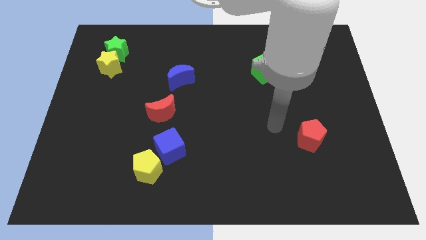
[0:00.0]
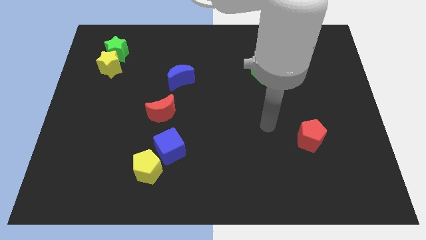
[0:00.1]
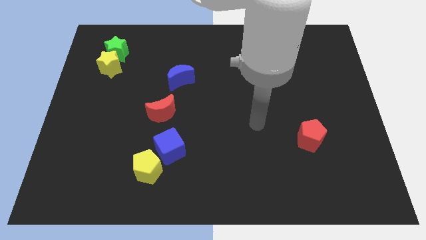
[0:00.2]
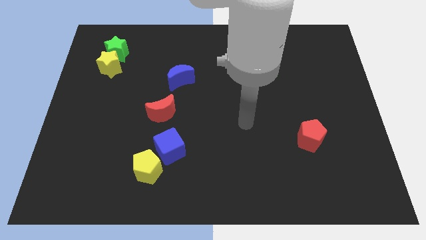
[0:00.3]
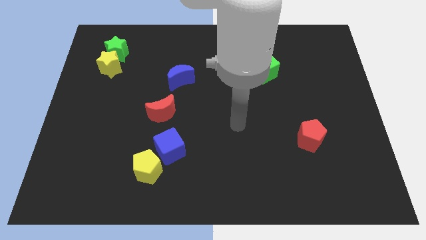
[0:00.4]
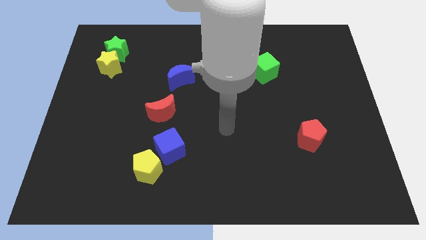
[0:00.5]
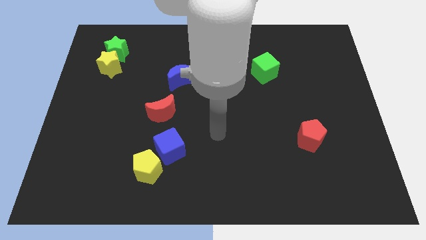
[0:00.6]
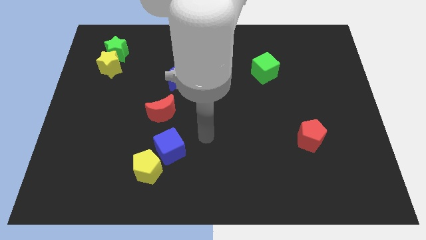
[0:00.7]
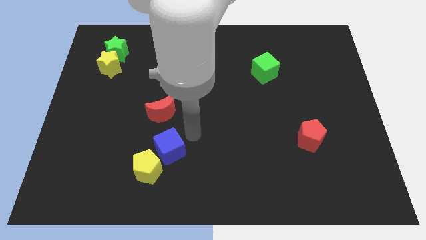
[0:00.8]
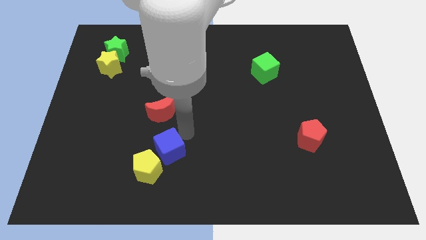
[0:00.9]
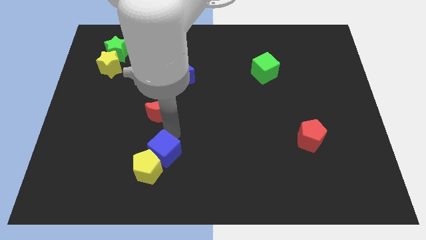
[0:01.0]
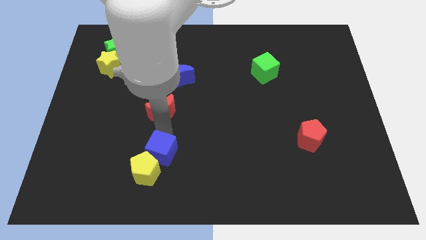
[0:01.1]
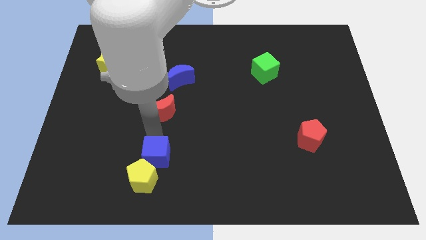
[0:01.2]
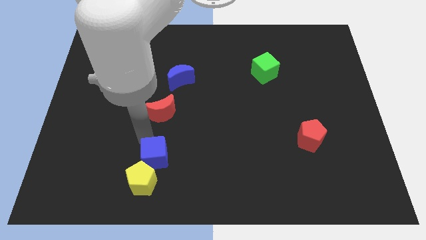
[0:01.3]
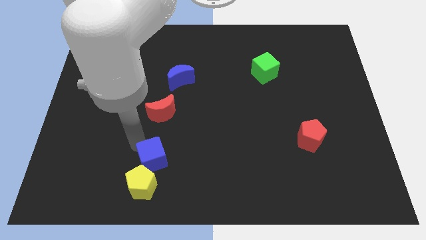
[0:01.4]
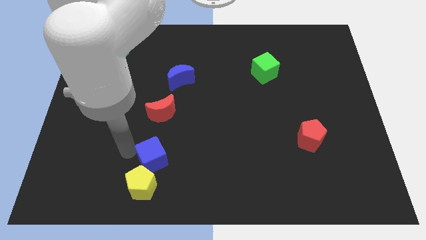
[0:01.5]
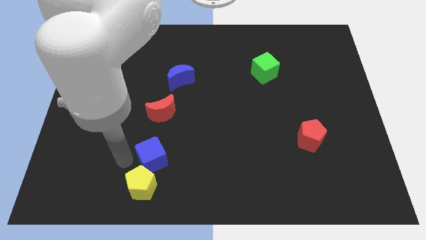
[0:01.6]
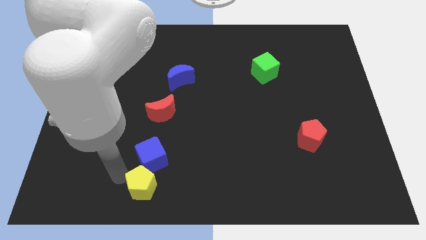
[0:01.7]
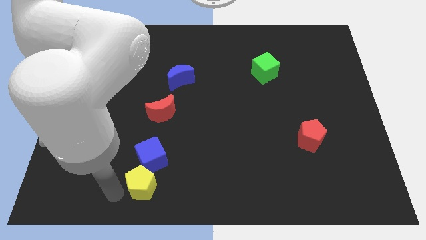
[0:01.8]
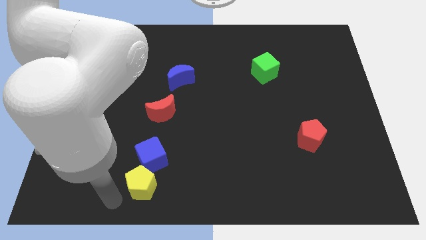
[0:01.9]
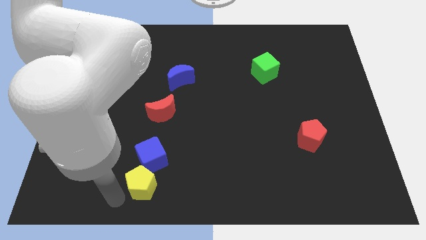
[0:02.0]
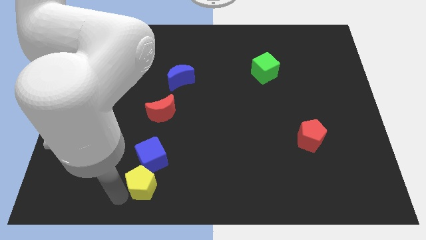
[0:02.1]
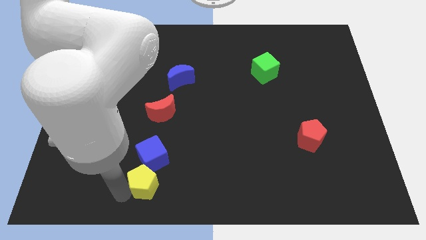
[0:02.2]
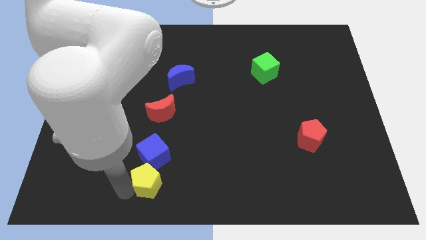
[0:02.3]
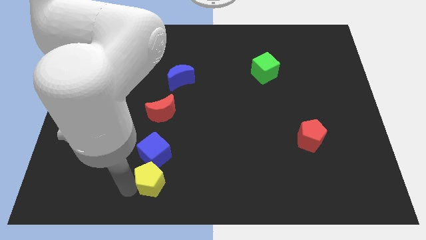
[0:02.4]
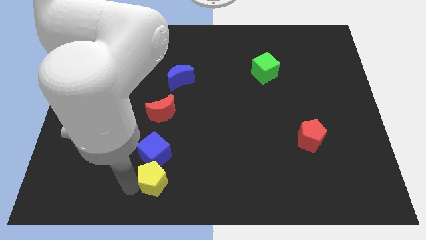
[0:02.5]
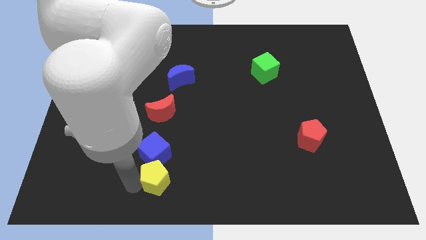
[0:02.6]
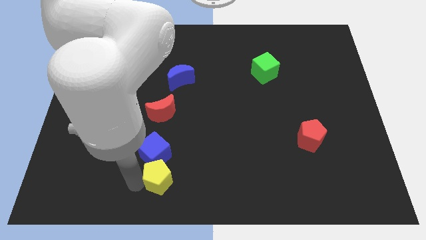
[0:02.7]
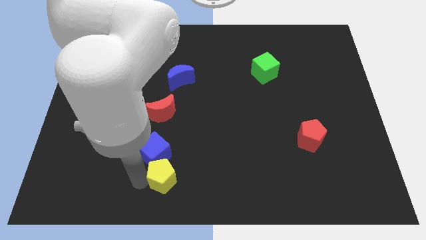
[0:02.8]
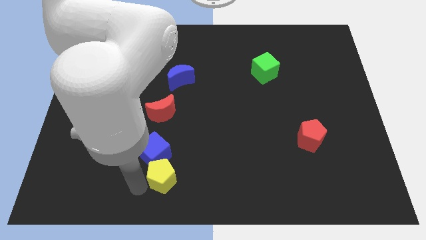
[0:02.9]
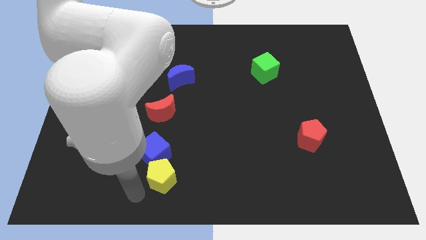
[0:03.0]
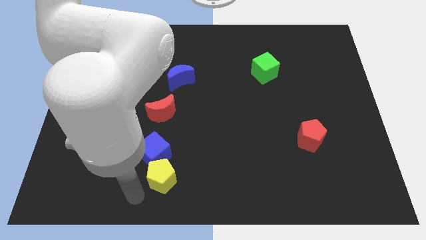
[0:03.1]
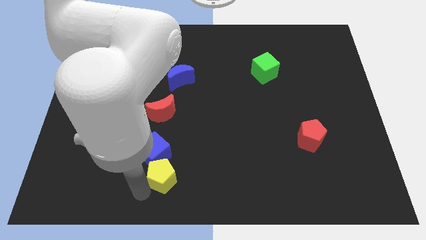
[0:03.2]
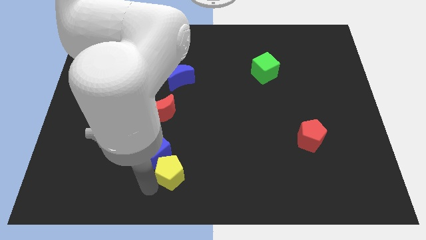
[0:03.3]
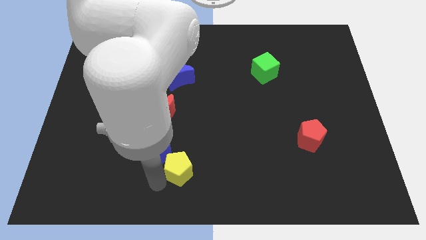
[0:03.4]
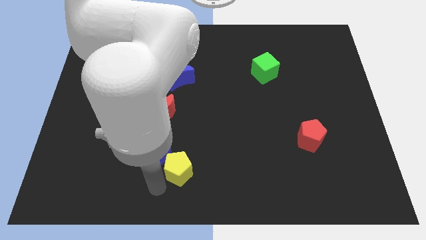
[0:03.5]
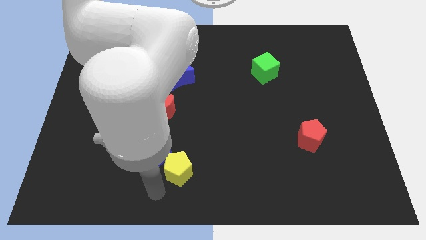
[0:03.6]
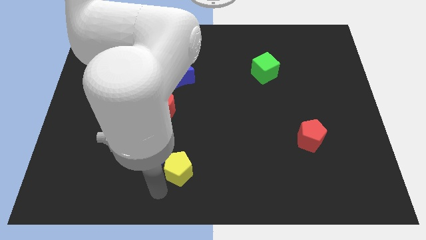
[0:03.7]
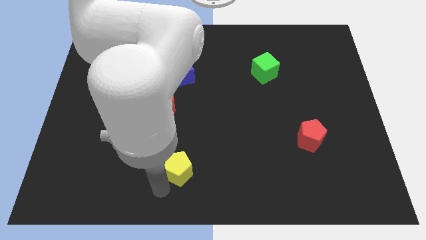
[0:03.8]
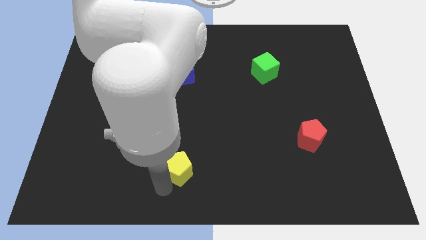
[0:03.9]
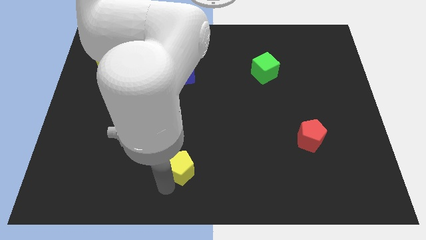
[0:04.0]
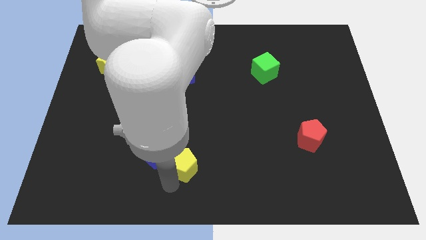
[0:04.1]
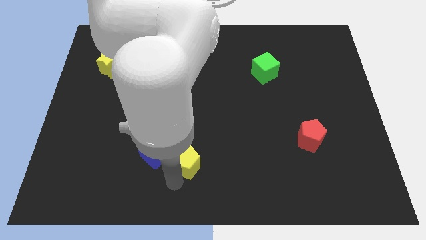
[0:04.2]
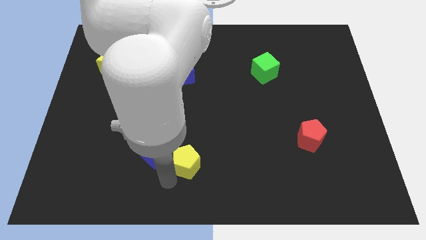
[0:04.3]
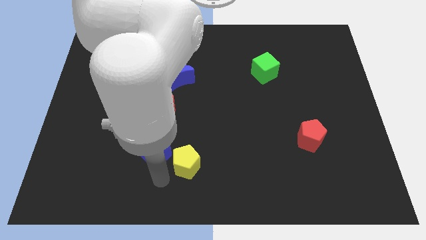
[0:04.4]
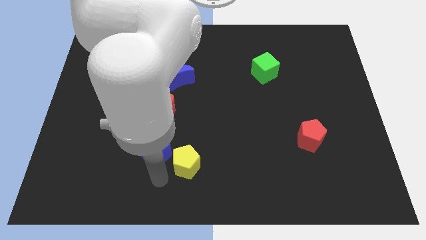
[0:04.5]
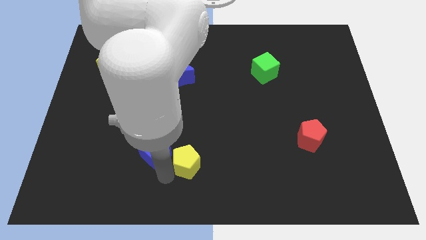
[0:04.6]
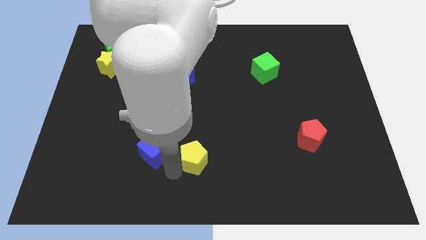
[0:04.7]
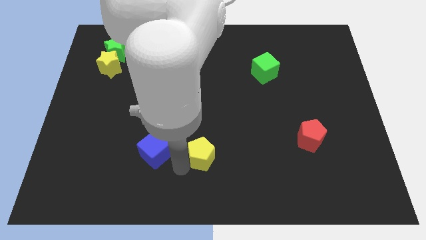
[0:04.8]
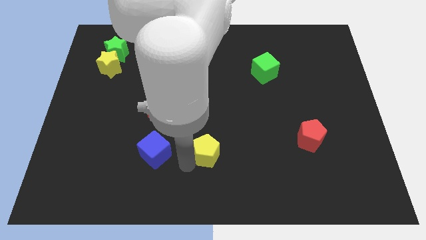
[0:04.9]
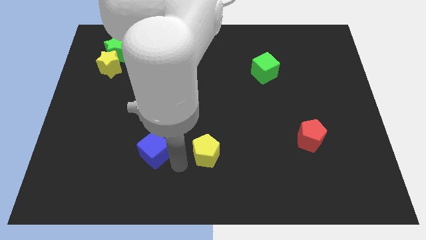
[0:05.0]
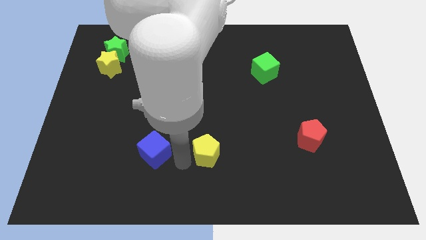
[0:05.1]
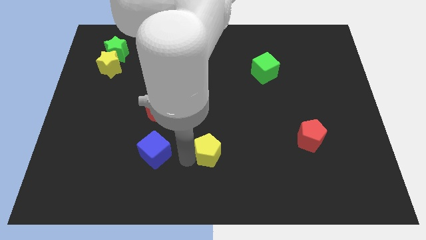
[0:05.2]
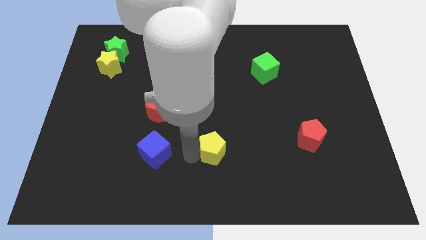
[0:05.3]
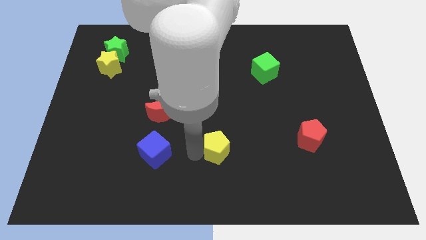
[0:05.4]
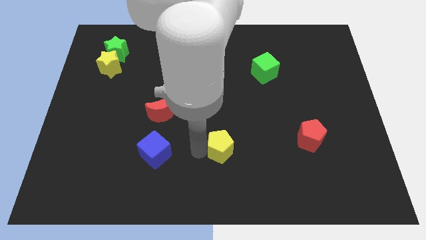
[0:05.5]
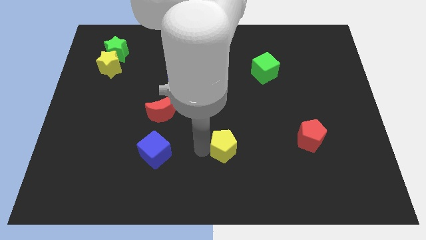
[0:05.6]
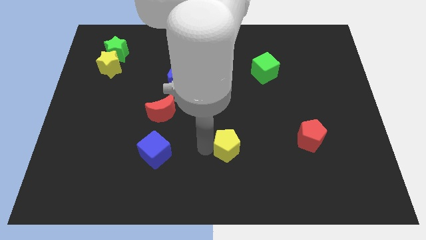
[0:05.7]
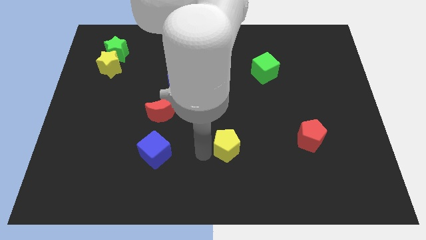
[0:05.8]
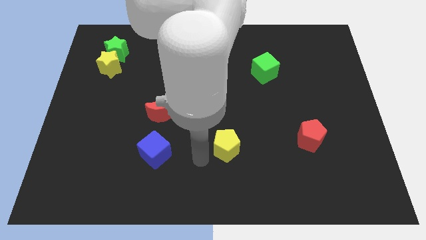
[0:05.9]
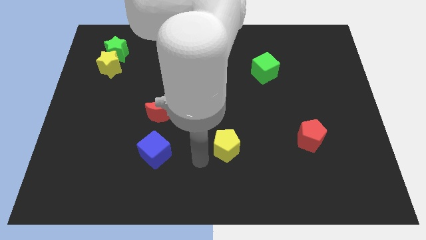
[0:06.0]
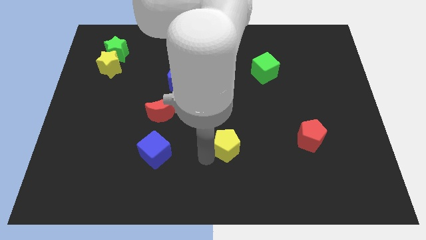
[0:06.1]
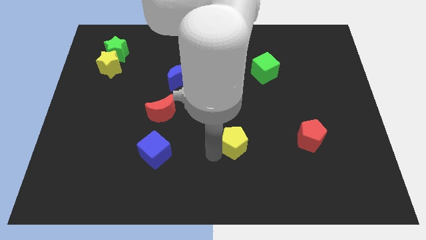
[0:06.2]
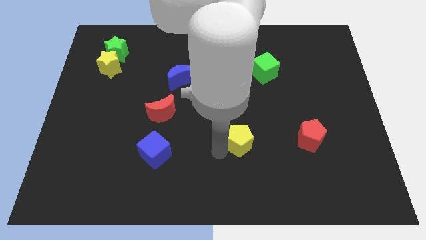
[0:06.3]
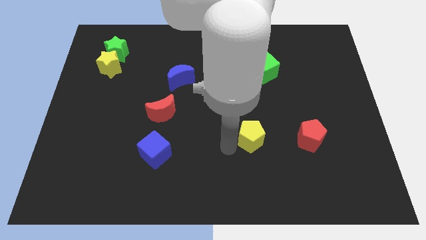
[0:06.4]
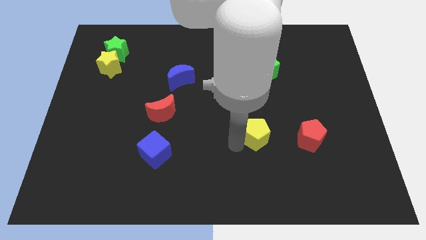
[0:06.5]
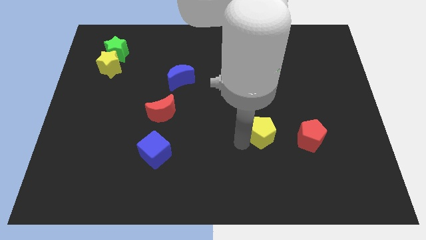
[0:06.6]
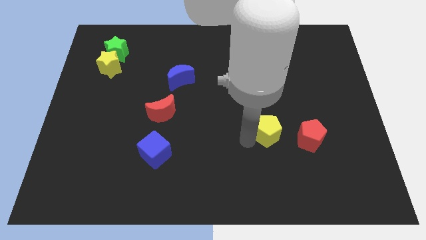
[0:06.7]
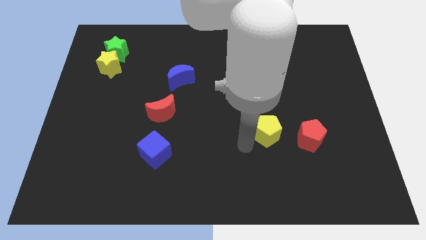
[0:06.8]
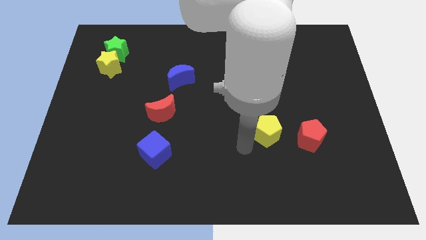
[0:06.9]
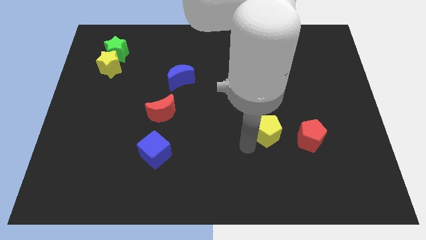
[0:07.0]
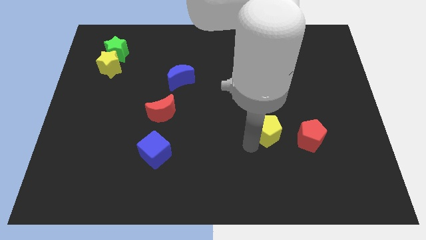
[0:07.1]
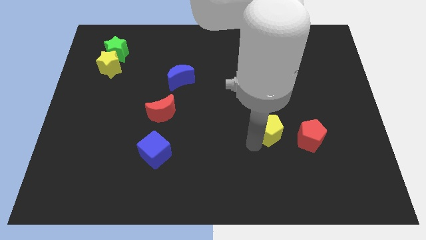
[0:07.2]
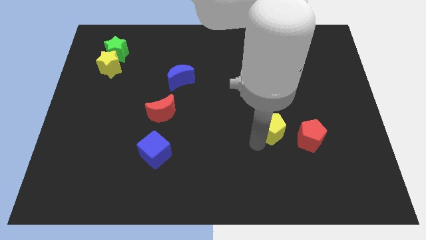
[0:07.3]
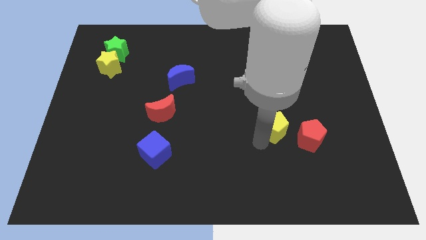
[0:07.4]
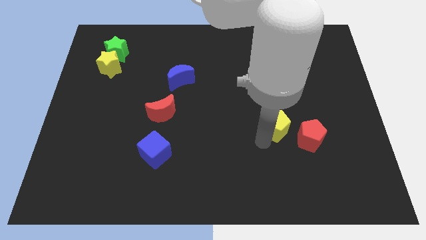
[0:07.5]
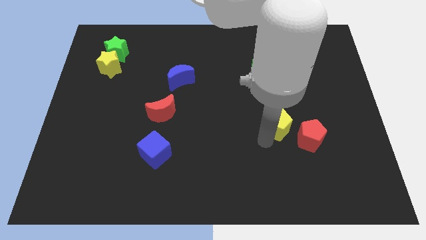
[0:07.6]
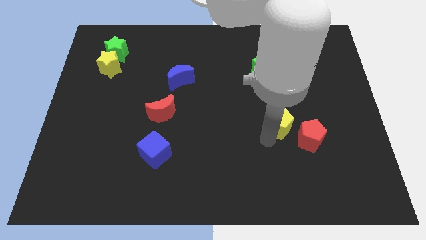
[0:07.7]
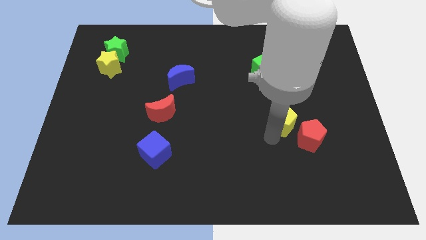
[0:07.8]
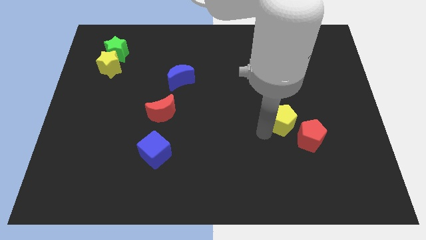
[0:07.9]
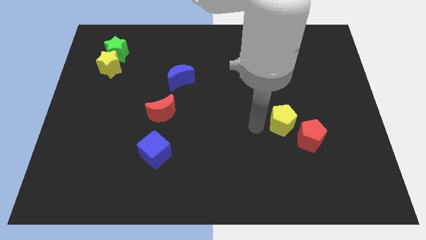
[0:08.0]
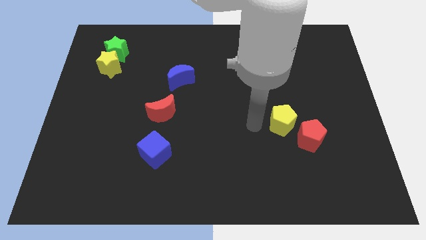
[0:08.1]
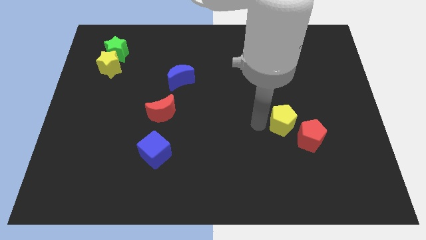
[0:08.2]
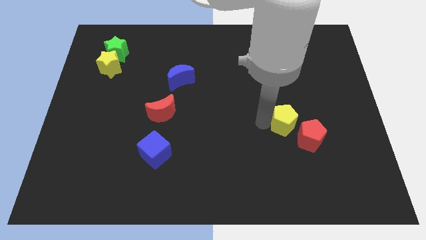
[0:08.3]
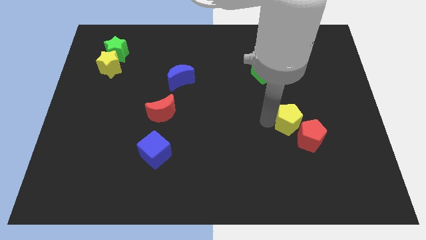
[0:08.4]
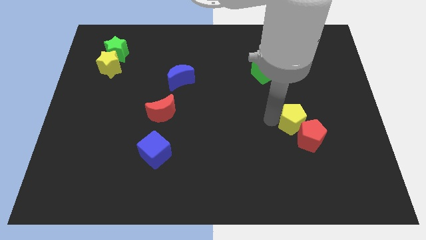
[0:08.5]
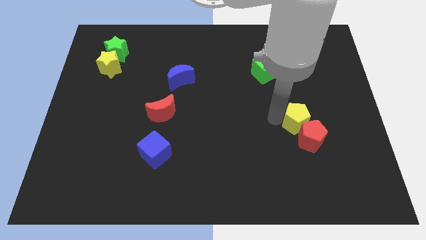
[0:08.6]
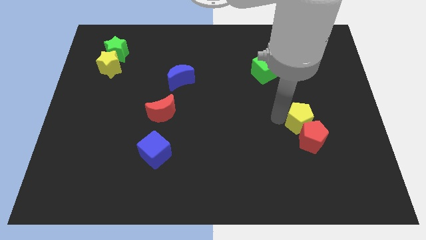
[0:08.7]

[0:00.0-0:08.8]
slide the yellow pentagon diagonally up and to the right of the red pentagon
